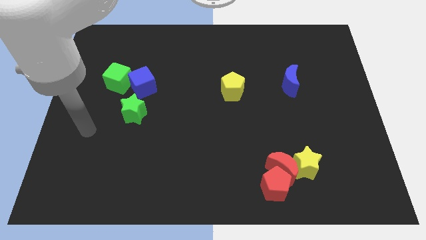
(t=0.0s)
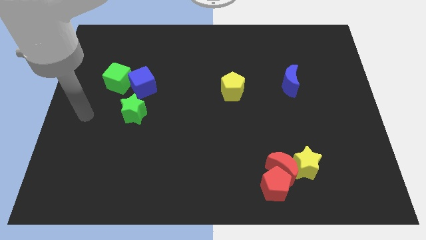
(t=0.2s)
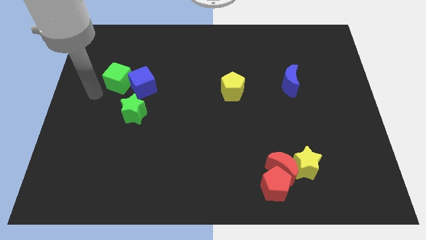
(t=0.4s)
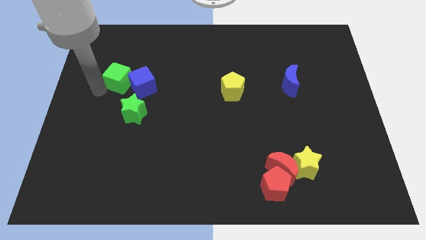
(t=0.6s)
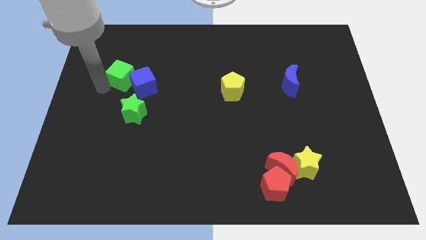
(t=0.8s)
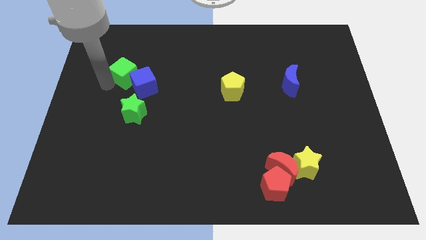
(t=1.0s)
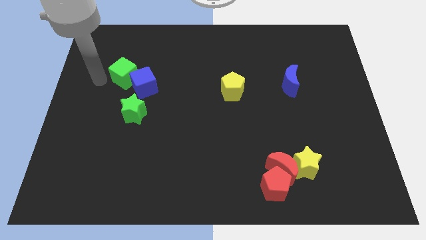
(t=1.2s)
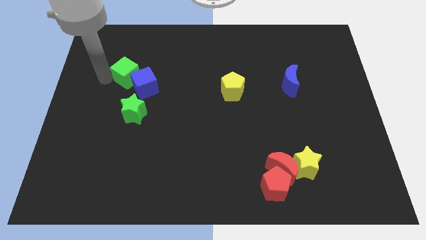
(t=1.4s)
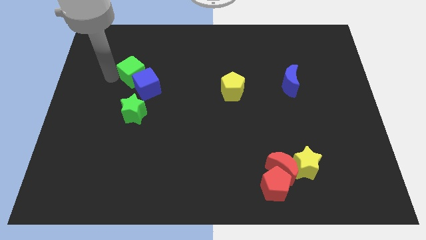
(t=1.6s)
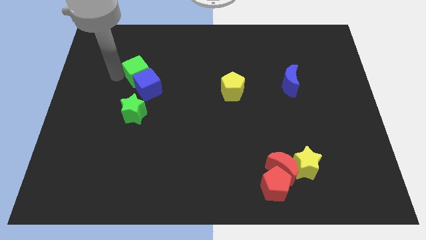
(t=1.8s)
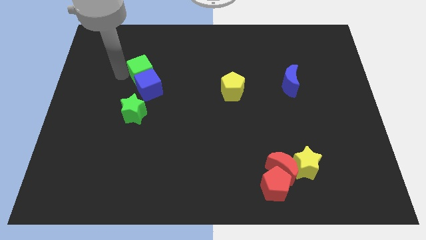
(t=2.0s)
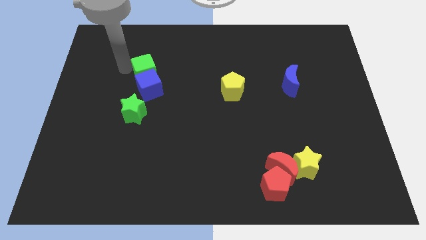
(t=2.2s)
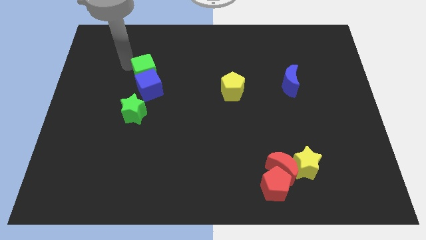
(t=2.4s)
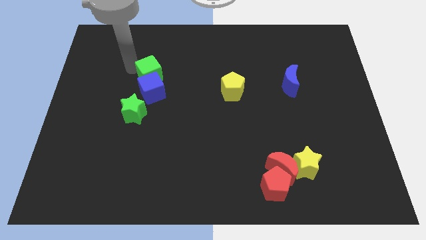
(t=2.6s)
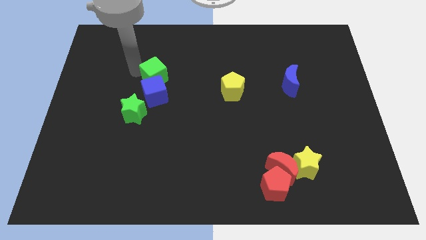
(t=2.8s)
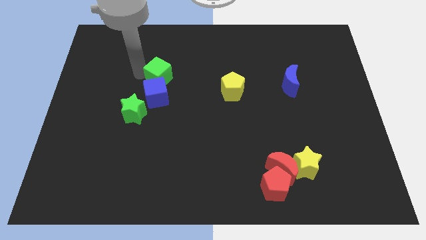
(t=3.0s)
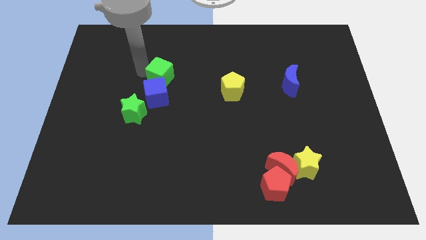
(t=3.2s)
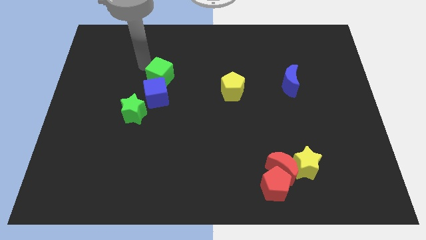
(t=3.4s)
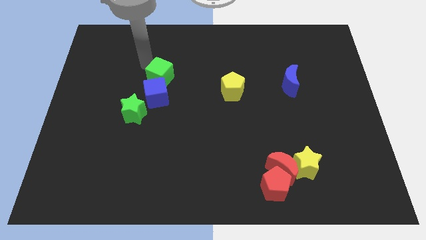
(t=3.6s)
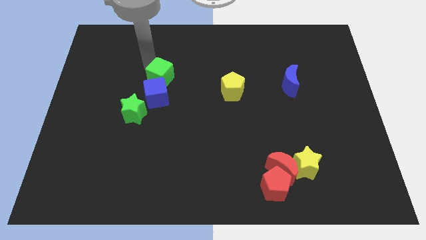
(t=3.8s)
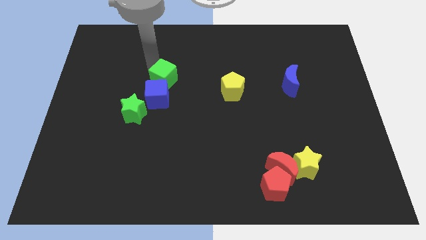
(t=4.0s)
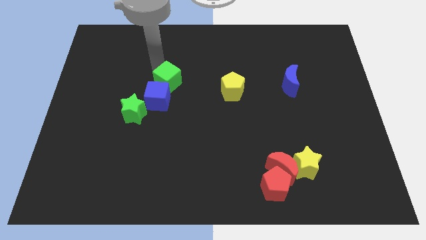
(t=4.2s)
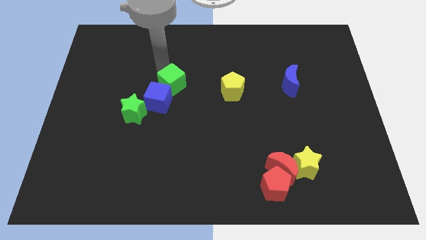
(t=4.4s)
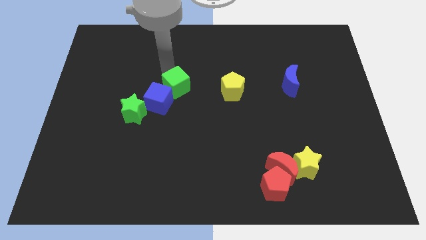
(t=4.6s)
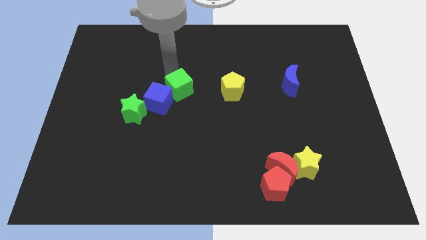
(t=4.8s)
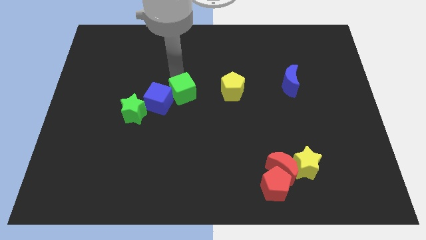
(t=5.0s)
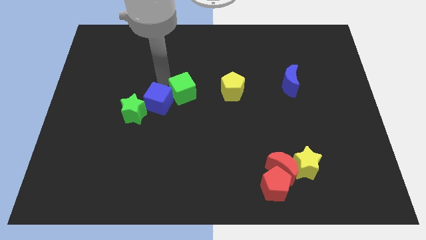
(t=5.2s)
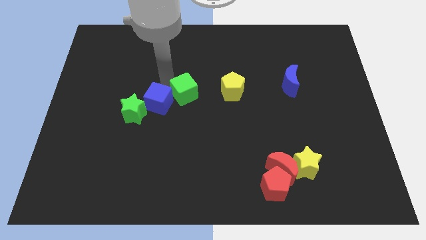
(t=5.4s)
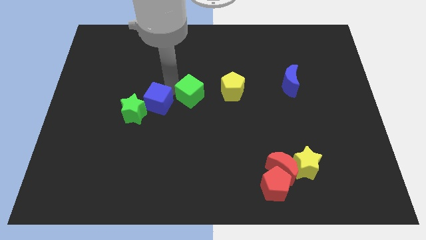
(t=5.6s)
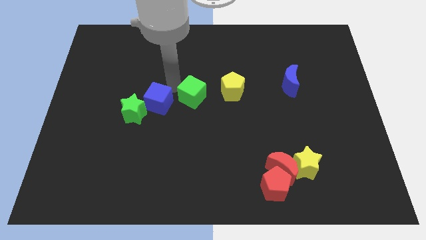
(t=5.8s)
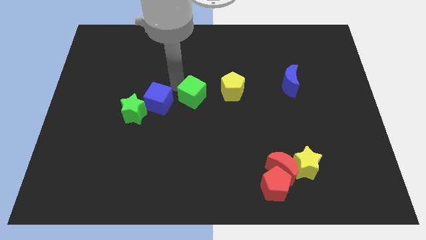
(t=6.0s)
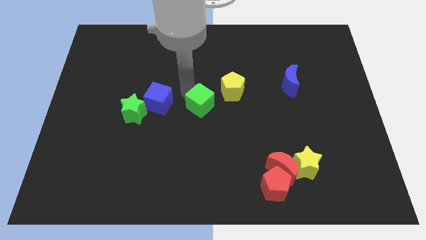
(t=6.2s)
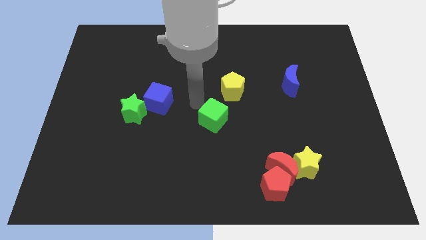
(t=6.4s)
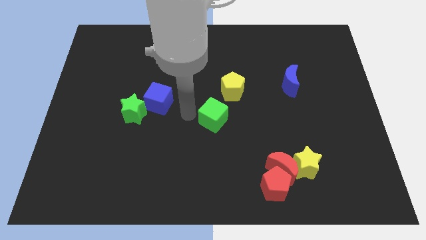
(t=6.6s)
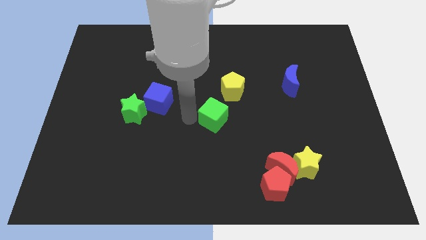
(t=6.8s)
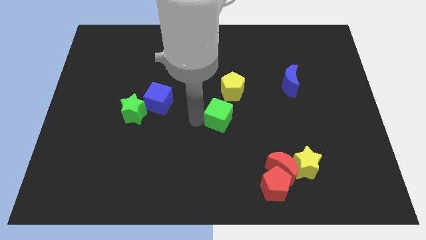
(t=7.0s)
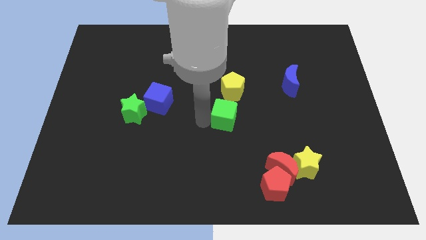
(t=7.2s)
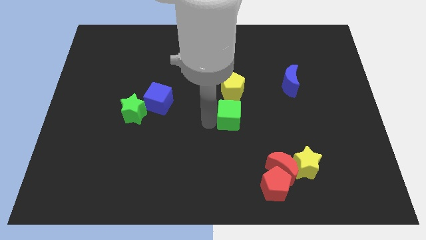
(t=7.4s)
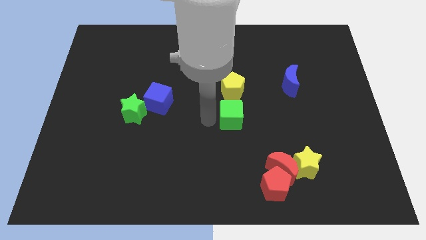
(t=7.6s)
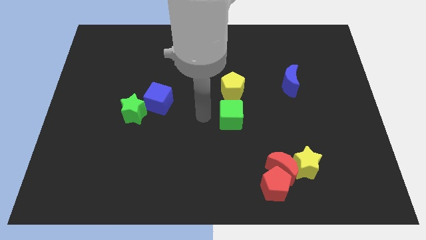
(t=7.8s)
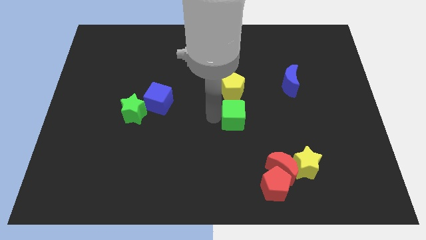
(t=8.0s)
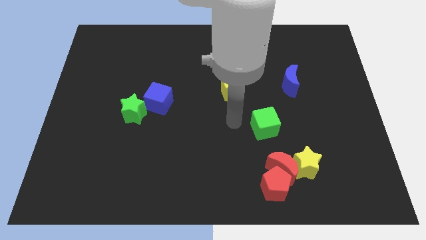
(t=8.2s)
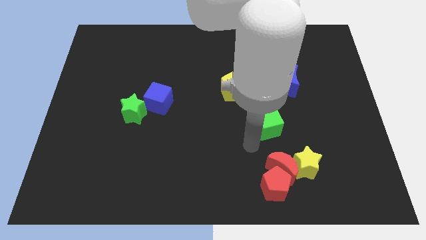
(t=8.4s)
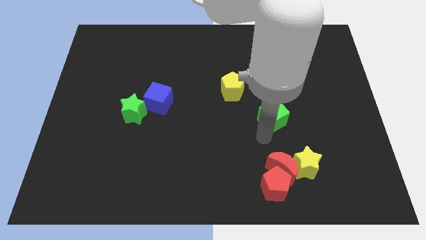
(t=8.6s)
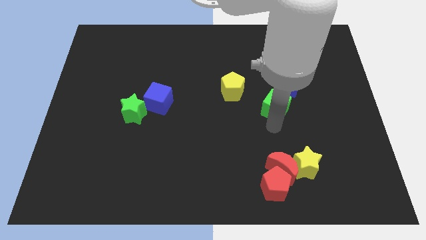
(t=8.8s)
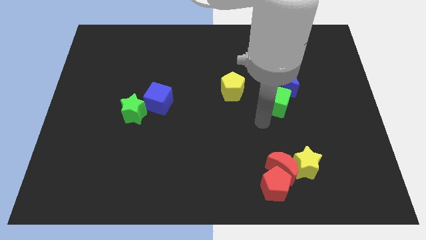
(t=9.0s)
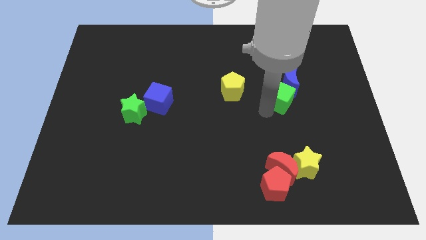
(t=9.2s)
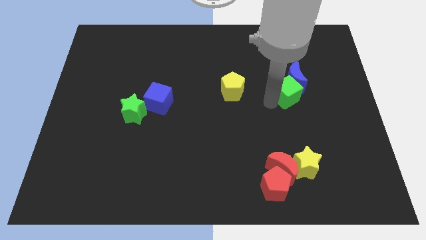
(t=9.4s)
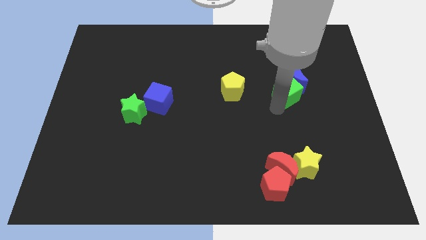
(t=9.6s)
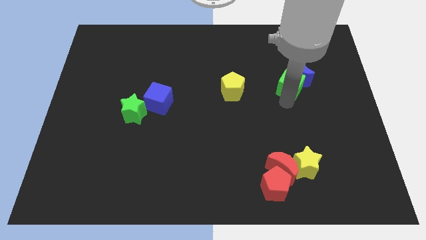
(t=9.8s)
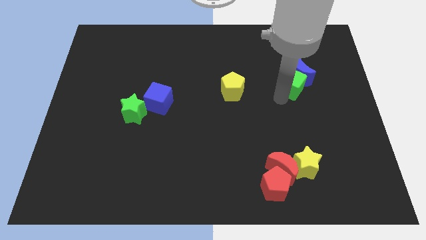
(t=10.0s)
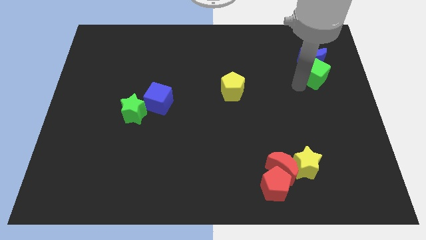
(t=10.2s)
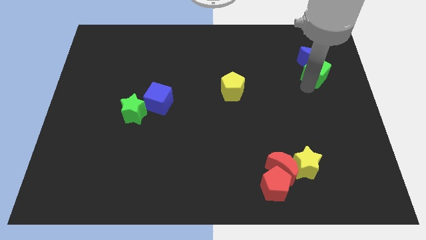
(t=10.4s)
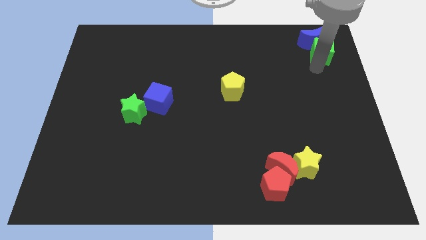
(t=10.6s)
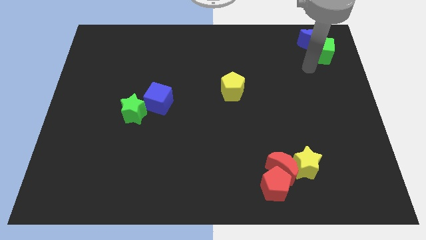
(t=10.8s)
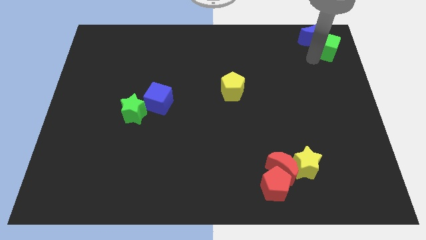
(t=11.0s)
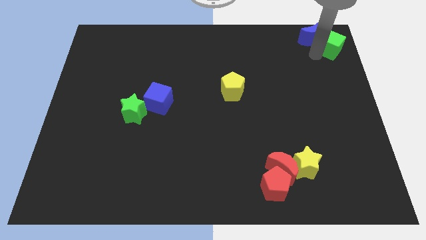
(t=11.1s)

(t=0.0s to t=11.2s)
move the green cube to the top right of the board
